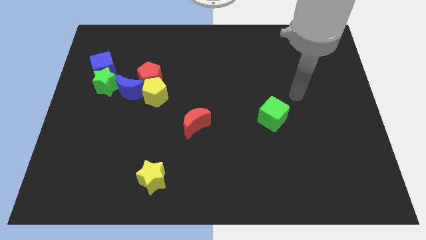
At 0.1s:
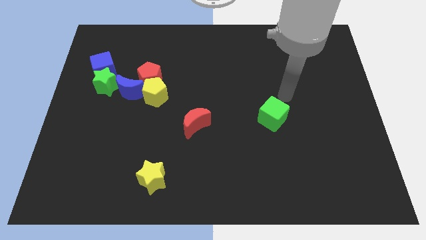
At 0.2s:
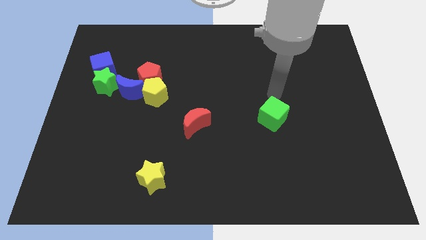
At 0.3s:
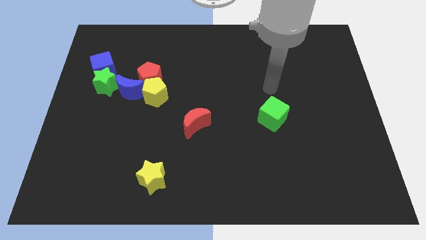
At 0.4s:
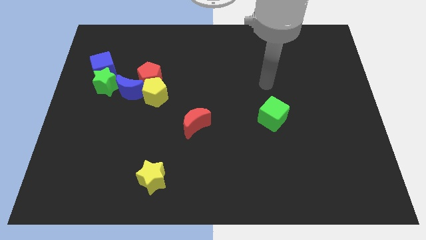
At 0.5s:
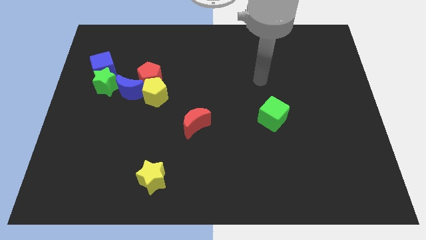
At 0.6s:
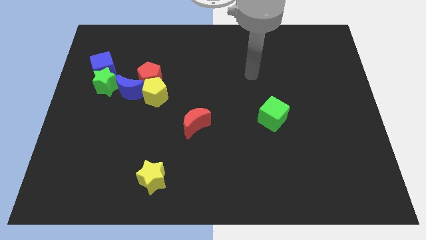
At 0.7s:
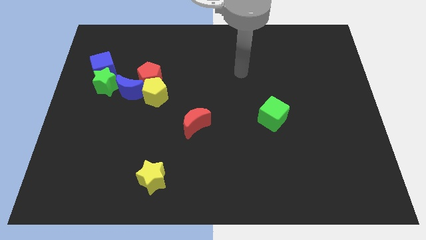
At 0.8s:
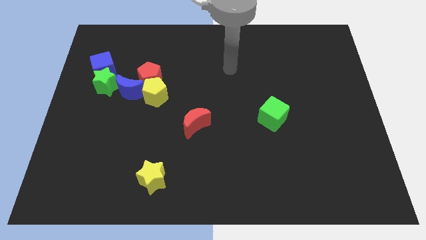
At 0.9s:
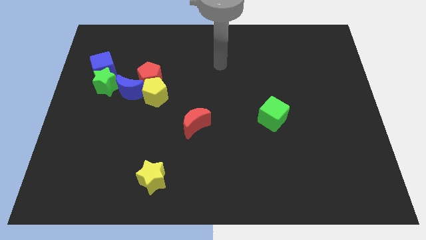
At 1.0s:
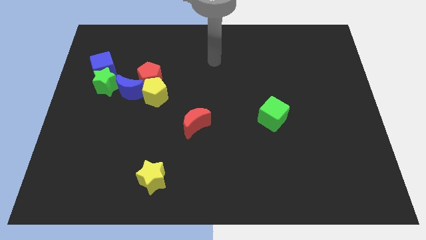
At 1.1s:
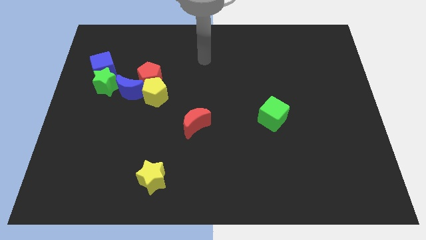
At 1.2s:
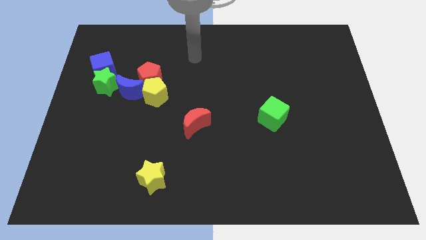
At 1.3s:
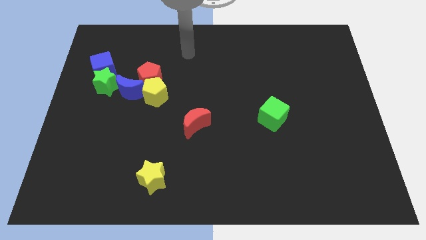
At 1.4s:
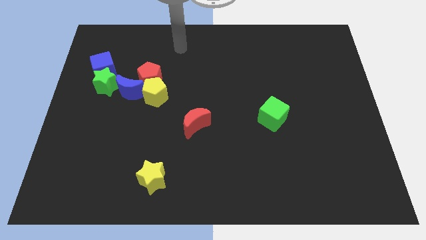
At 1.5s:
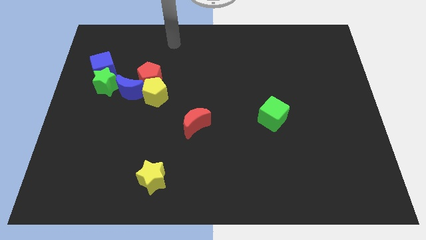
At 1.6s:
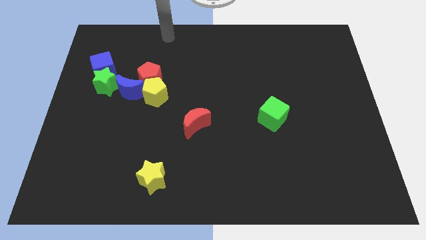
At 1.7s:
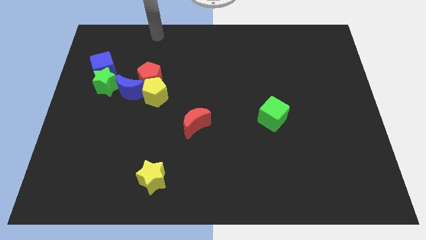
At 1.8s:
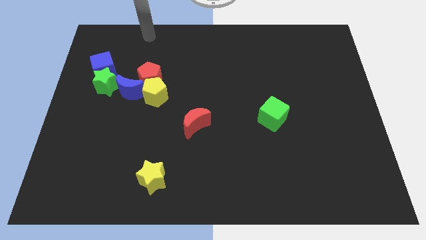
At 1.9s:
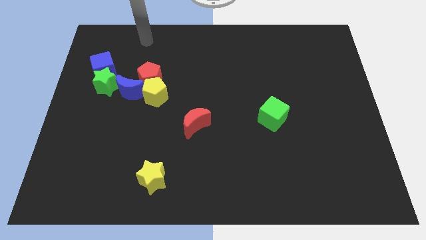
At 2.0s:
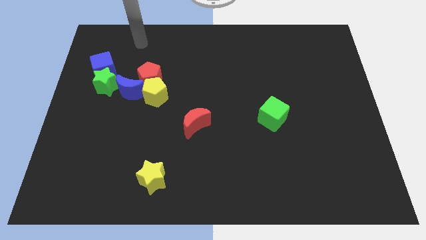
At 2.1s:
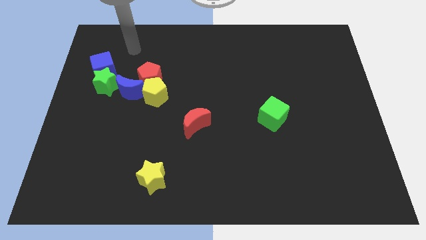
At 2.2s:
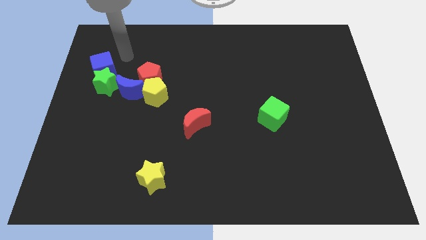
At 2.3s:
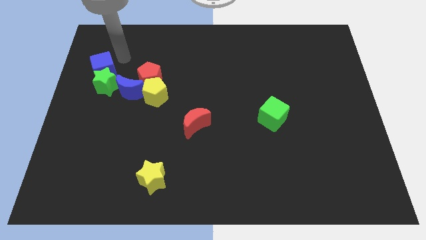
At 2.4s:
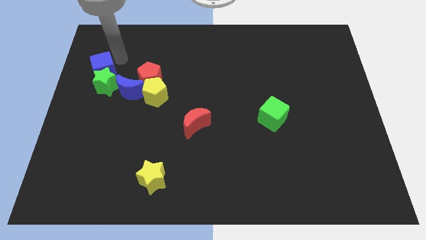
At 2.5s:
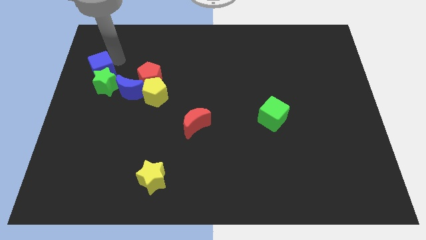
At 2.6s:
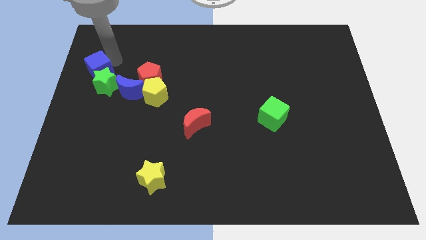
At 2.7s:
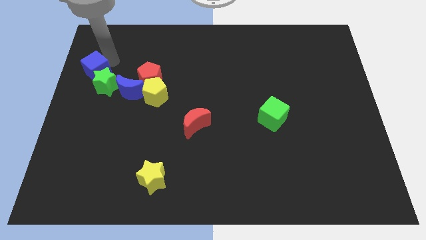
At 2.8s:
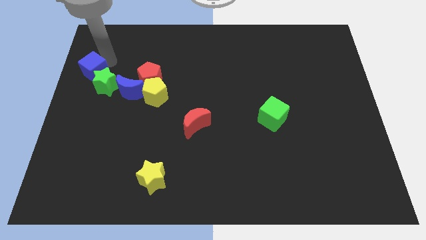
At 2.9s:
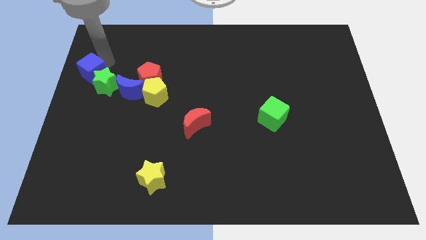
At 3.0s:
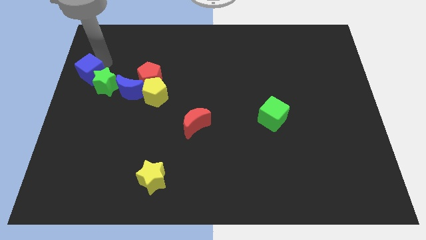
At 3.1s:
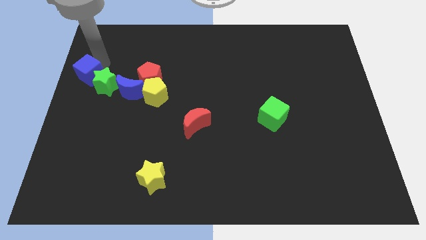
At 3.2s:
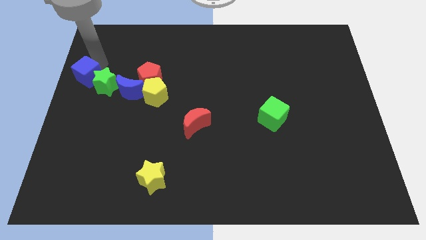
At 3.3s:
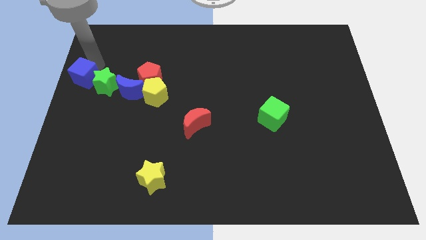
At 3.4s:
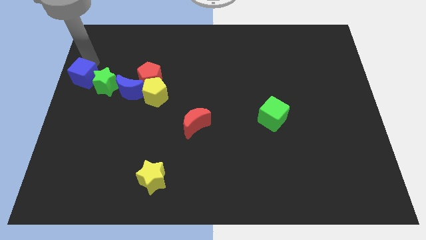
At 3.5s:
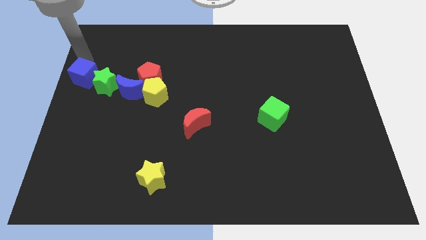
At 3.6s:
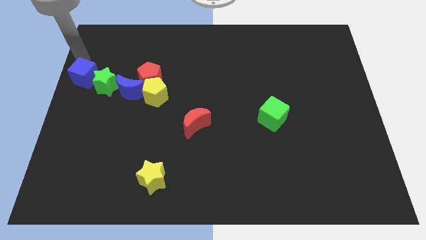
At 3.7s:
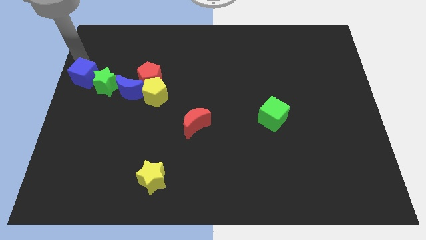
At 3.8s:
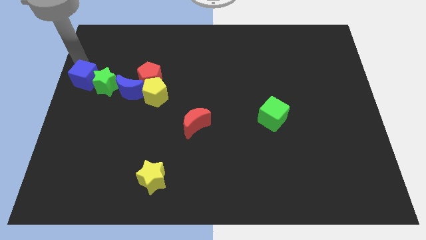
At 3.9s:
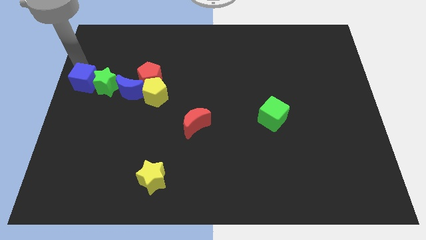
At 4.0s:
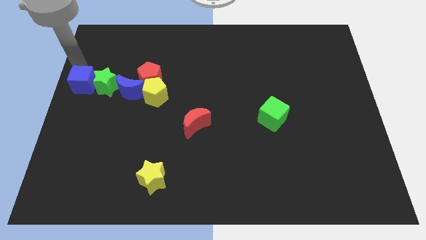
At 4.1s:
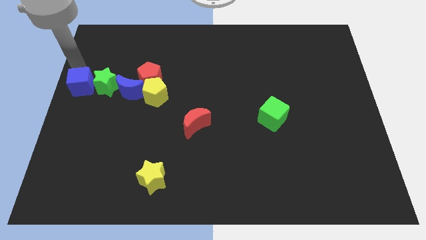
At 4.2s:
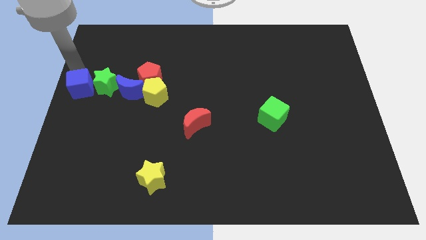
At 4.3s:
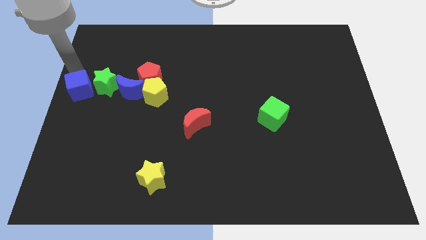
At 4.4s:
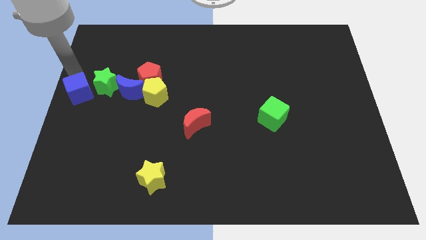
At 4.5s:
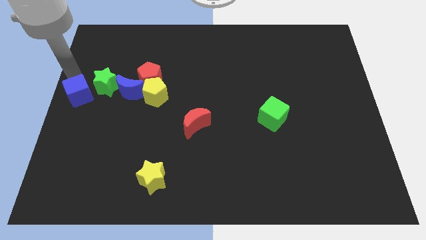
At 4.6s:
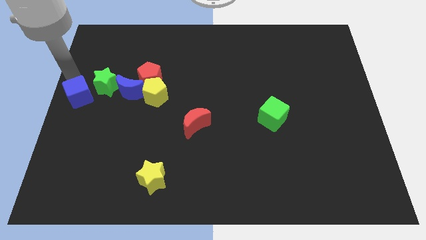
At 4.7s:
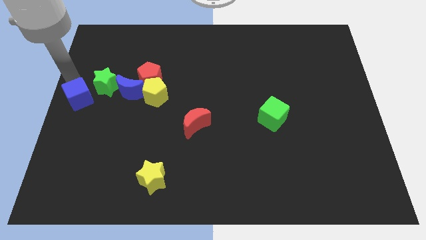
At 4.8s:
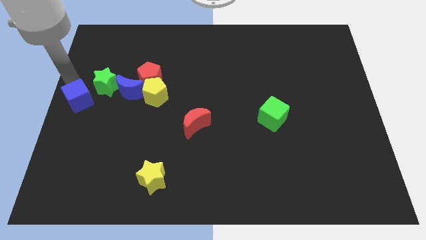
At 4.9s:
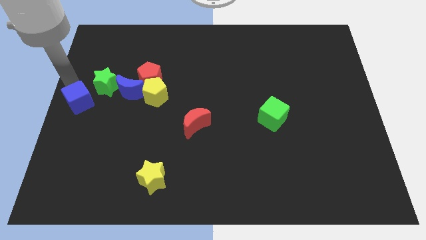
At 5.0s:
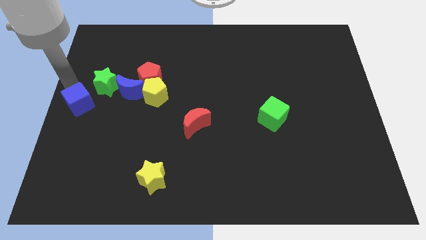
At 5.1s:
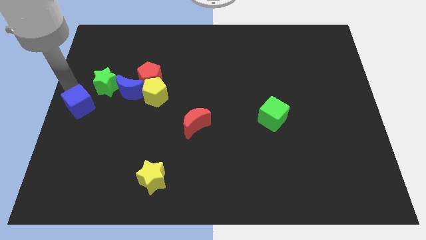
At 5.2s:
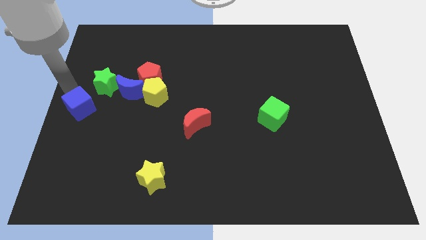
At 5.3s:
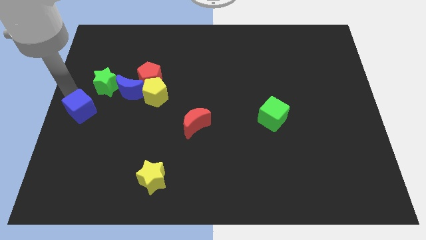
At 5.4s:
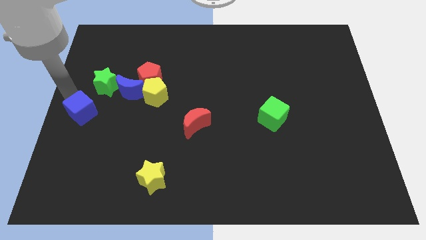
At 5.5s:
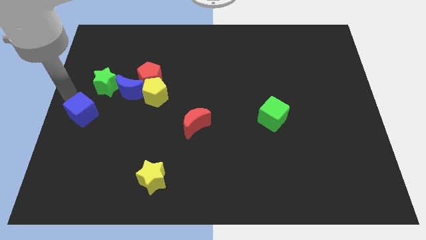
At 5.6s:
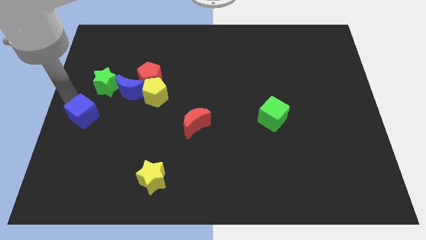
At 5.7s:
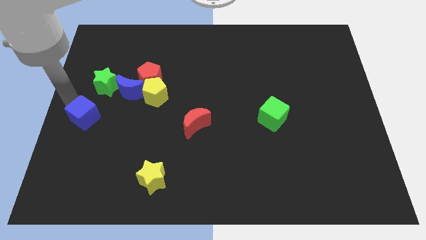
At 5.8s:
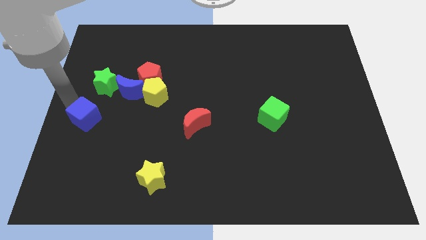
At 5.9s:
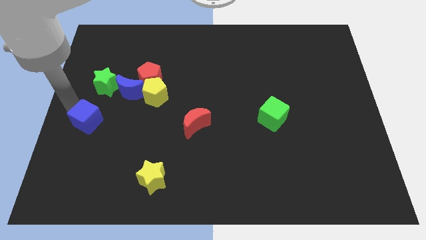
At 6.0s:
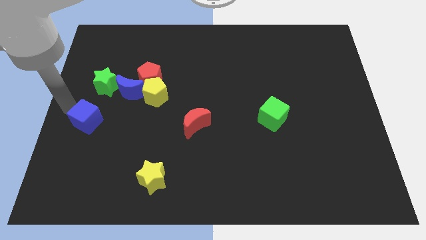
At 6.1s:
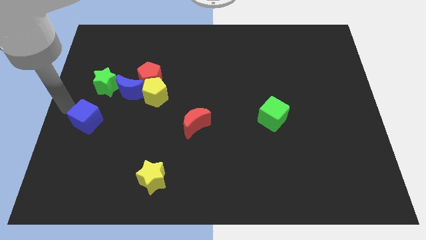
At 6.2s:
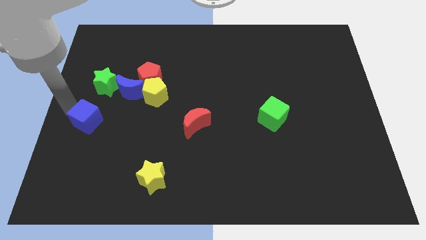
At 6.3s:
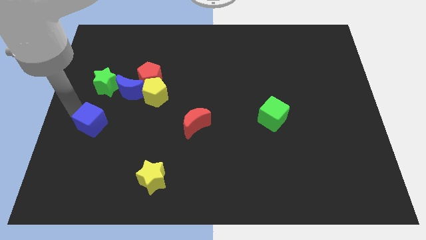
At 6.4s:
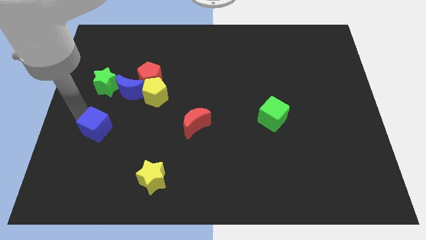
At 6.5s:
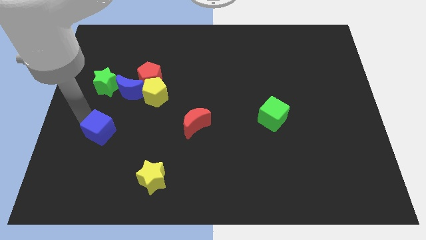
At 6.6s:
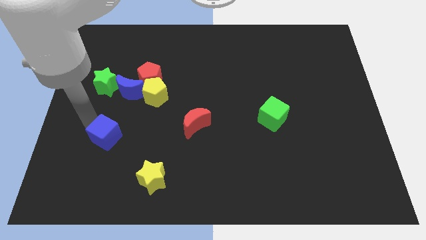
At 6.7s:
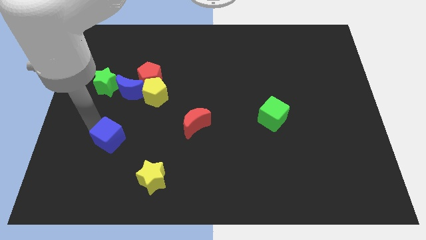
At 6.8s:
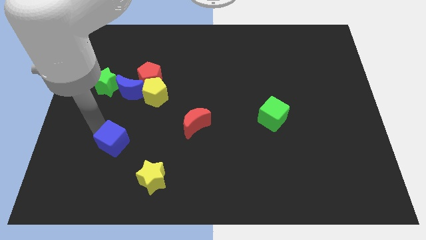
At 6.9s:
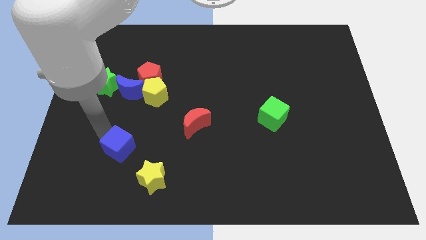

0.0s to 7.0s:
put the blue cube to the top left of the yellow star
